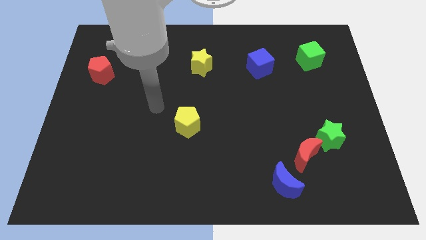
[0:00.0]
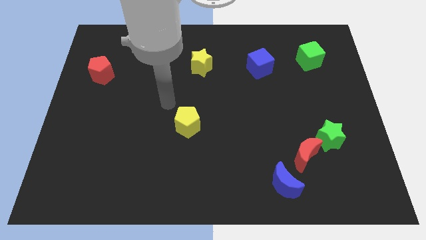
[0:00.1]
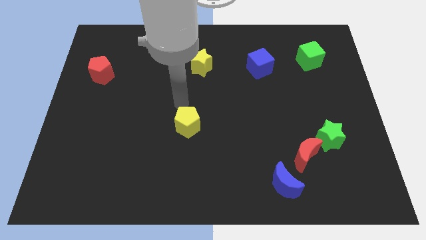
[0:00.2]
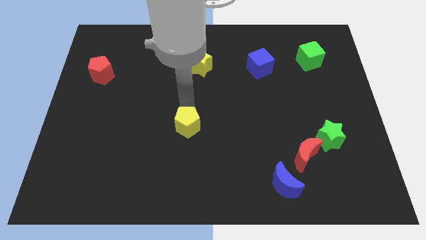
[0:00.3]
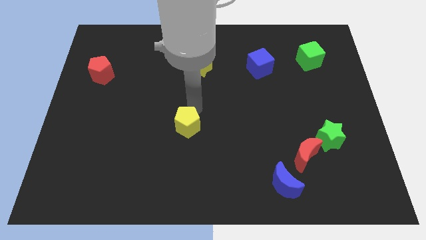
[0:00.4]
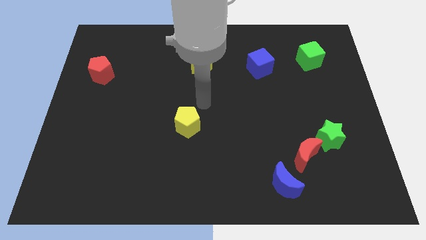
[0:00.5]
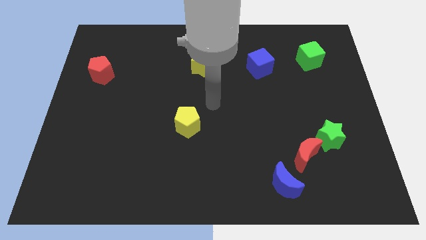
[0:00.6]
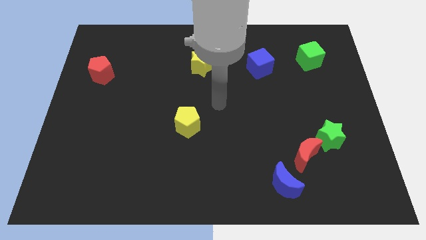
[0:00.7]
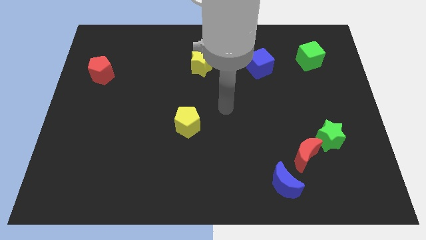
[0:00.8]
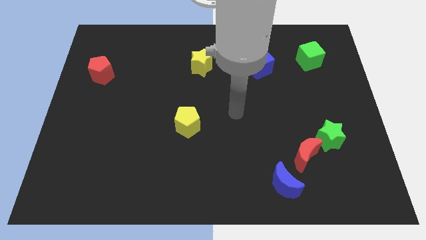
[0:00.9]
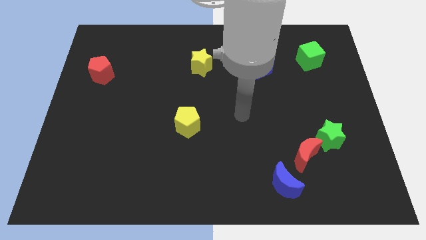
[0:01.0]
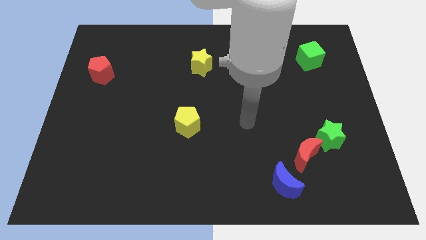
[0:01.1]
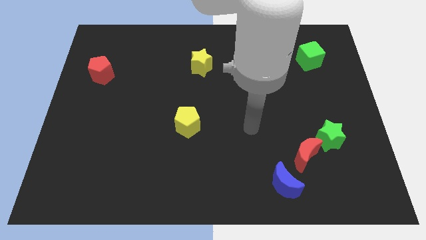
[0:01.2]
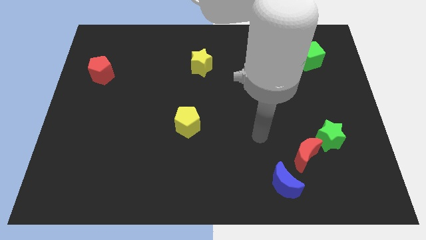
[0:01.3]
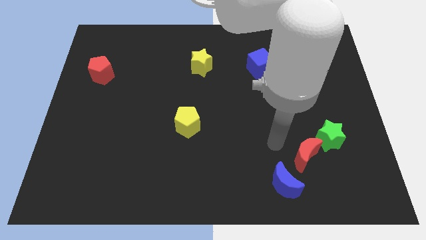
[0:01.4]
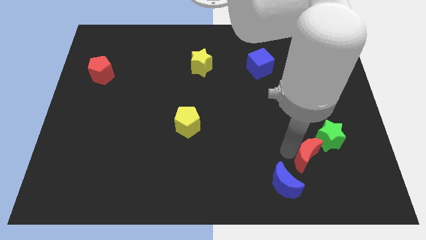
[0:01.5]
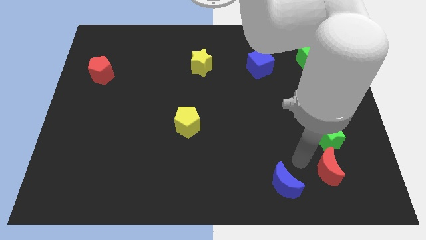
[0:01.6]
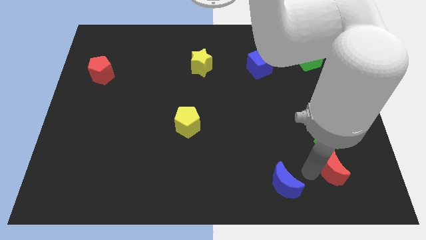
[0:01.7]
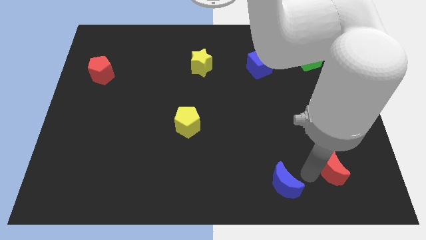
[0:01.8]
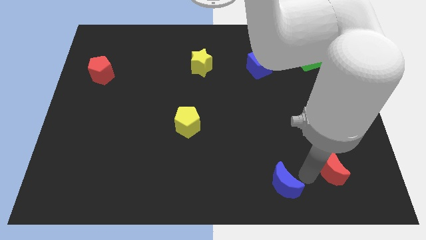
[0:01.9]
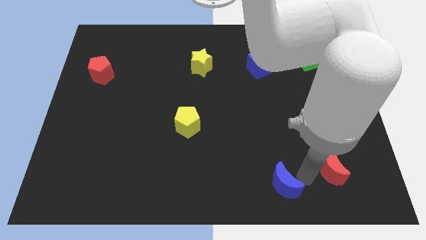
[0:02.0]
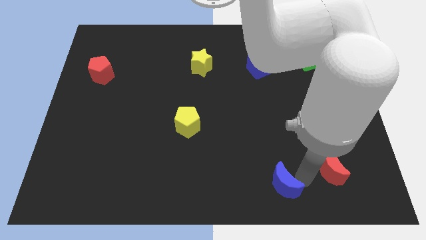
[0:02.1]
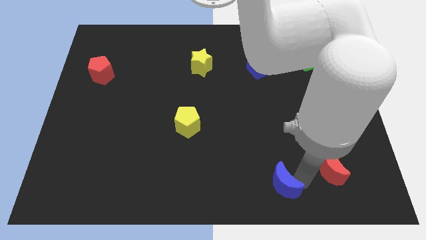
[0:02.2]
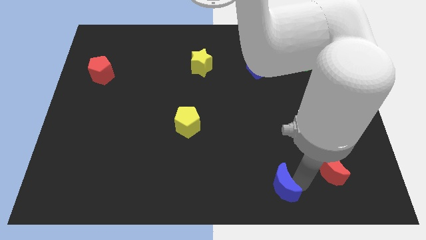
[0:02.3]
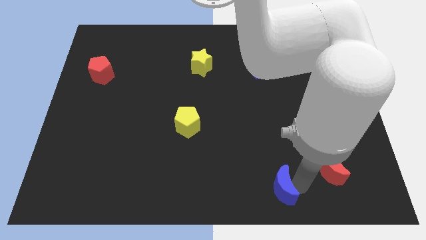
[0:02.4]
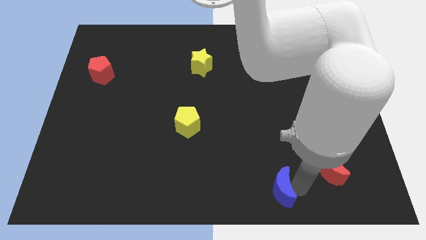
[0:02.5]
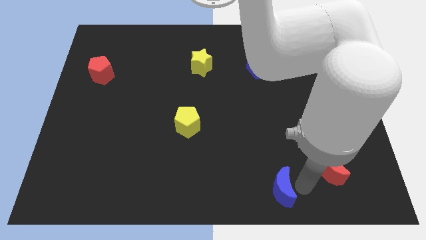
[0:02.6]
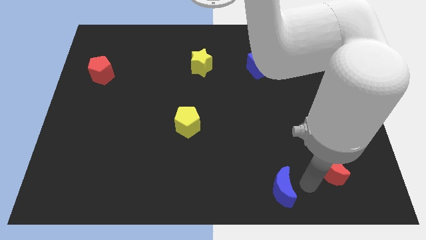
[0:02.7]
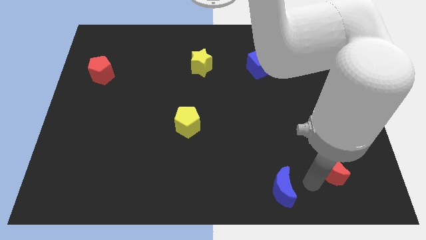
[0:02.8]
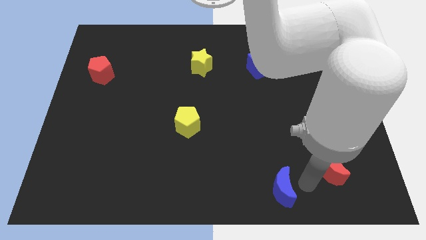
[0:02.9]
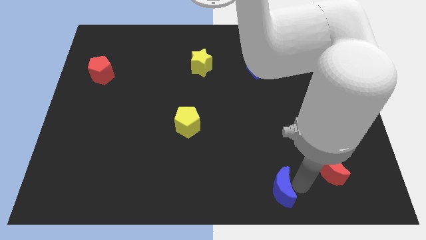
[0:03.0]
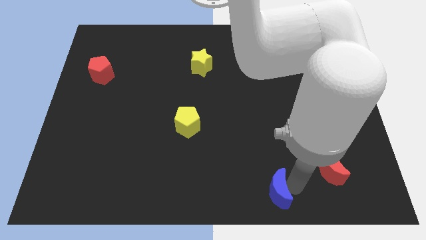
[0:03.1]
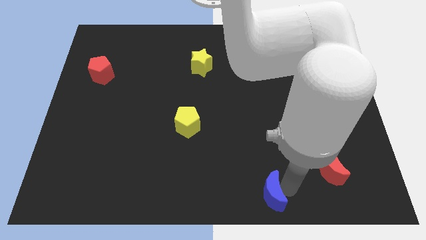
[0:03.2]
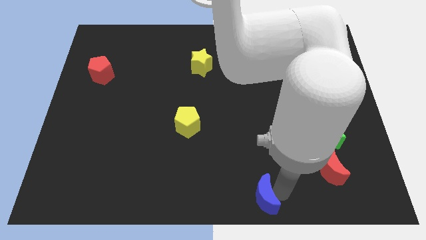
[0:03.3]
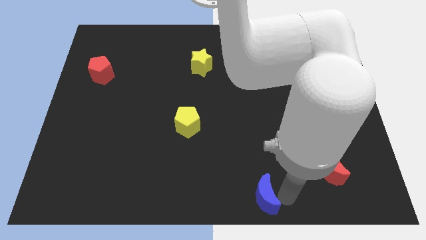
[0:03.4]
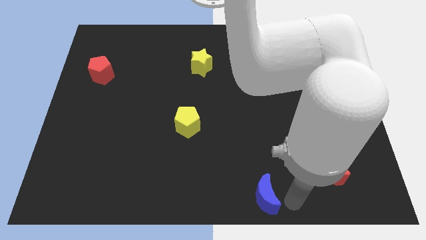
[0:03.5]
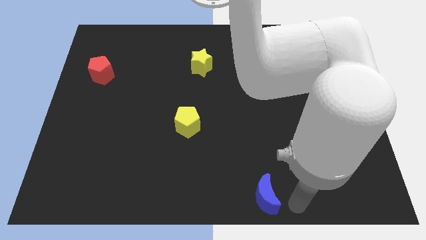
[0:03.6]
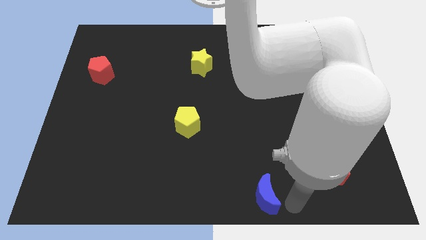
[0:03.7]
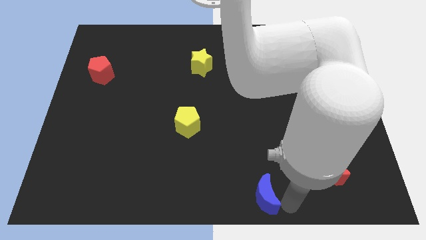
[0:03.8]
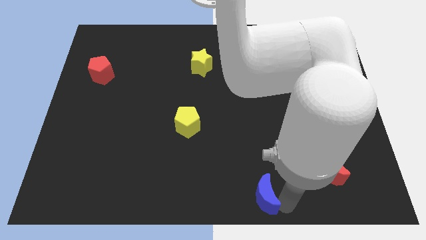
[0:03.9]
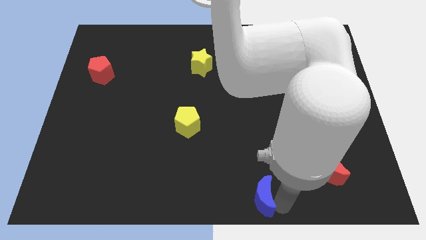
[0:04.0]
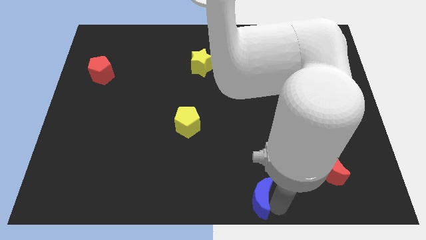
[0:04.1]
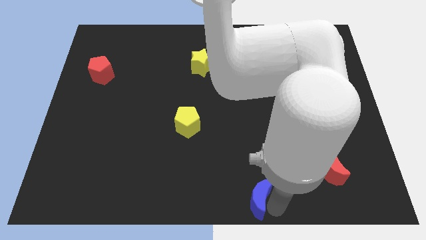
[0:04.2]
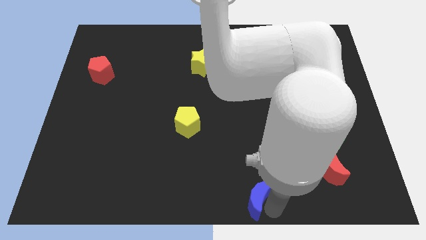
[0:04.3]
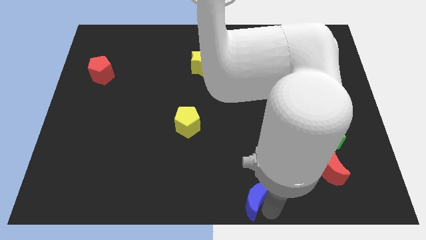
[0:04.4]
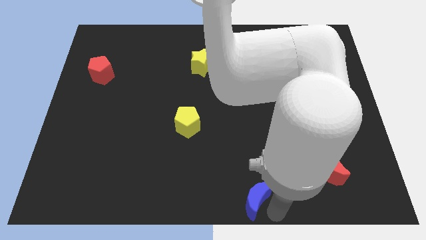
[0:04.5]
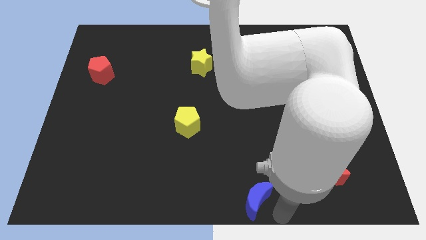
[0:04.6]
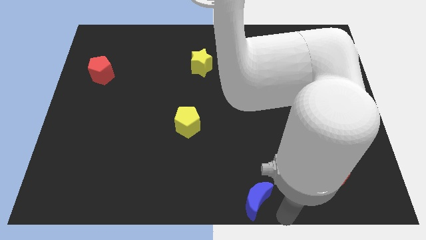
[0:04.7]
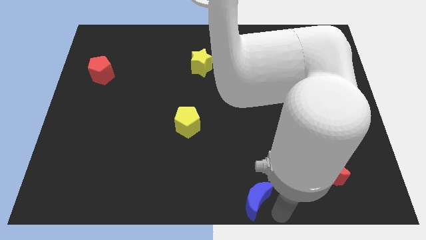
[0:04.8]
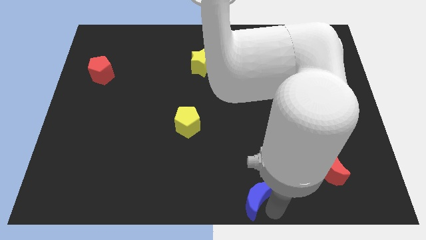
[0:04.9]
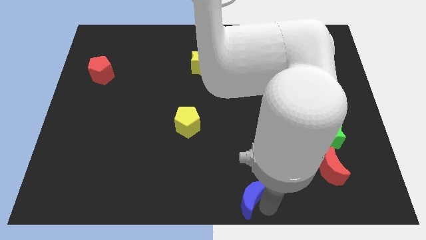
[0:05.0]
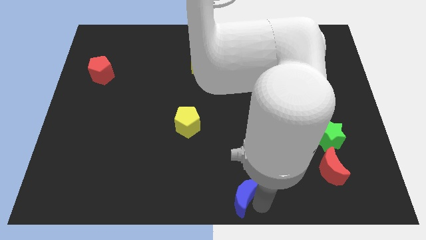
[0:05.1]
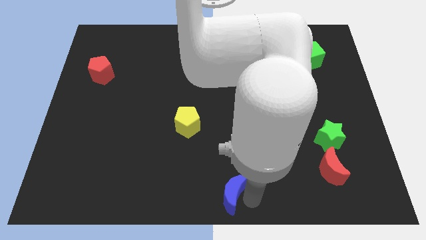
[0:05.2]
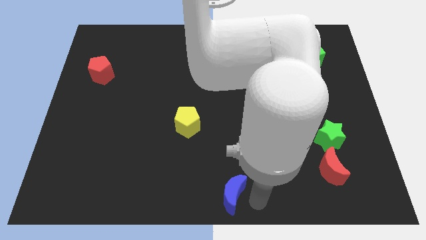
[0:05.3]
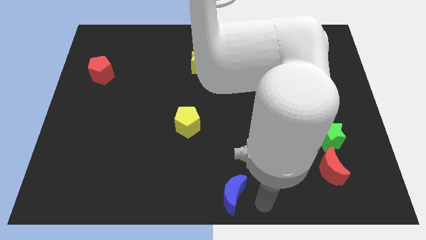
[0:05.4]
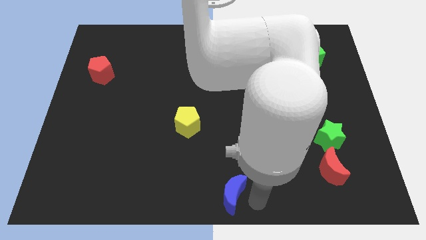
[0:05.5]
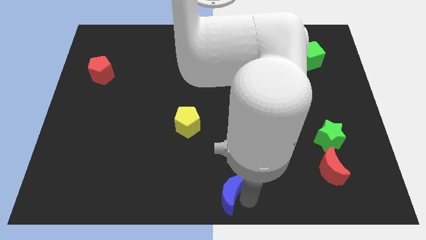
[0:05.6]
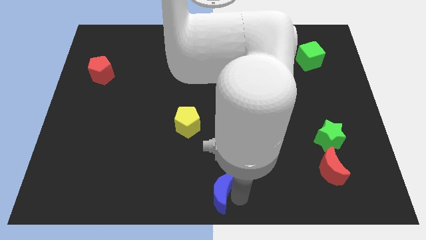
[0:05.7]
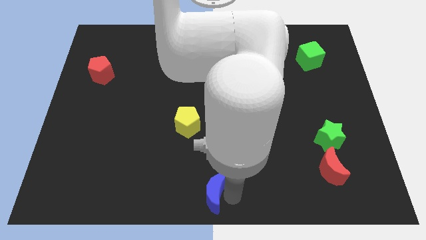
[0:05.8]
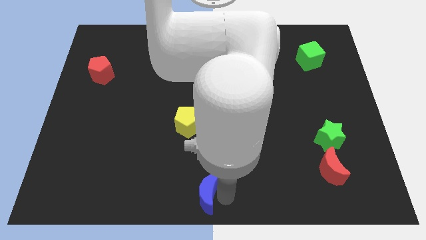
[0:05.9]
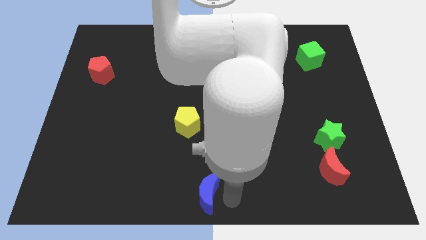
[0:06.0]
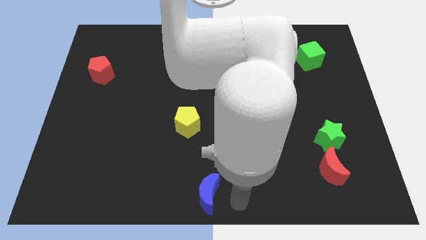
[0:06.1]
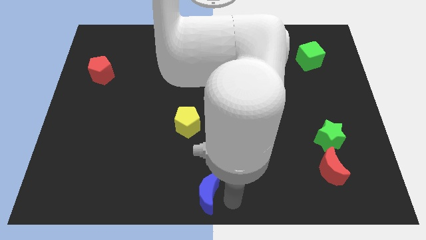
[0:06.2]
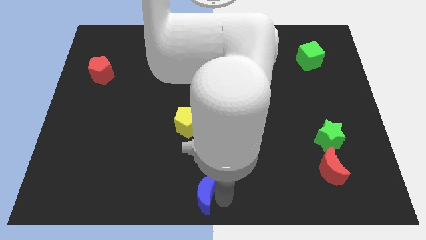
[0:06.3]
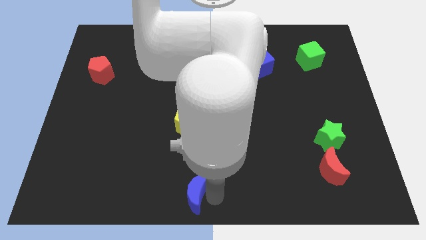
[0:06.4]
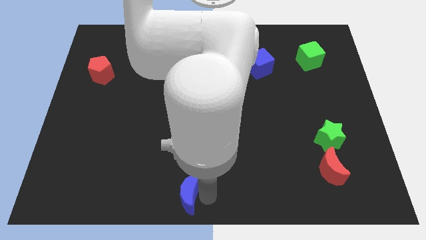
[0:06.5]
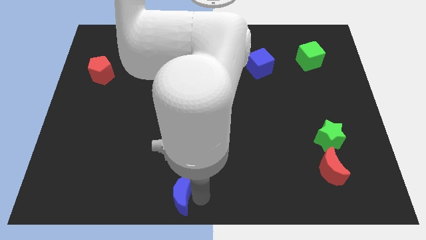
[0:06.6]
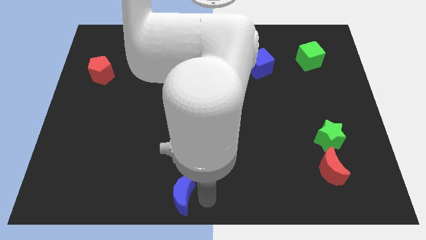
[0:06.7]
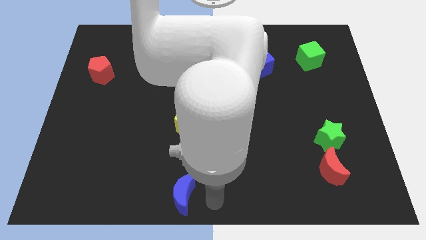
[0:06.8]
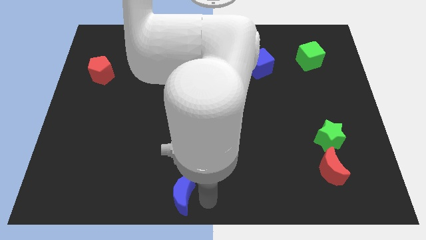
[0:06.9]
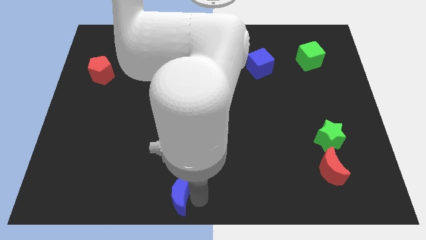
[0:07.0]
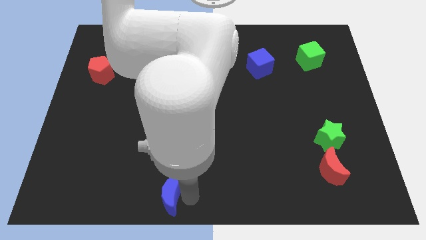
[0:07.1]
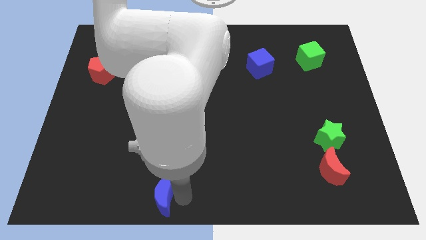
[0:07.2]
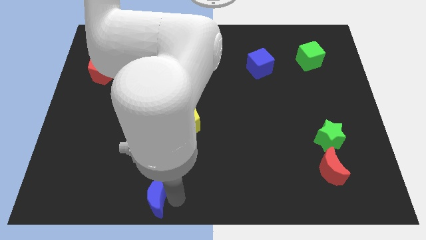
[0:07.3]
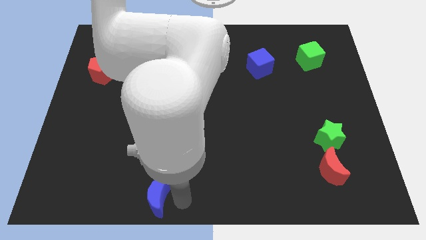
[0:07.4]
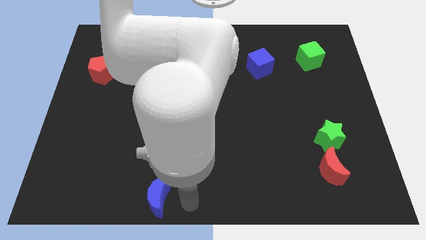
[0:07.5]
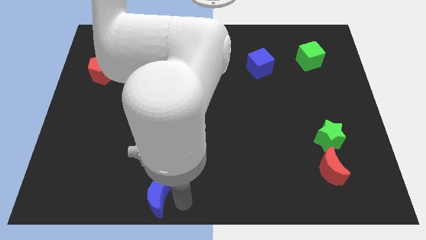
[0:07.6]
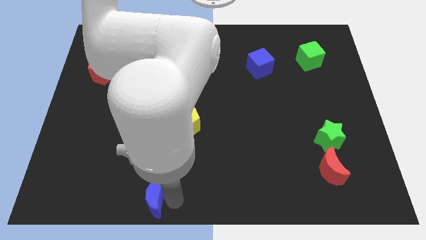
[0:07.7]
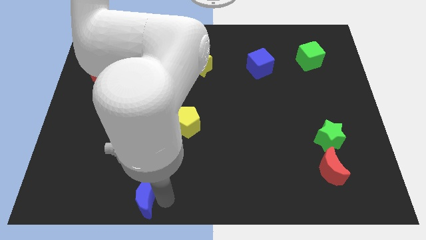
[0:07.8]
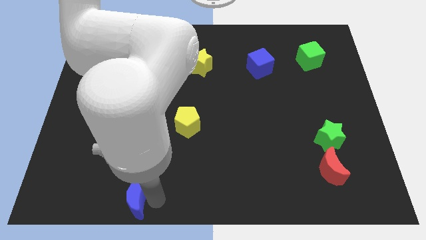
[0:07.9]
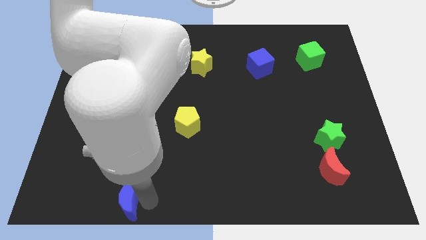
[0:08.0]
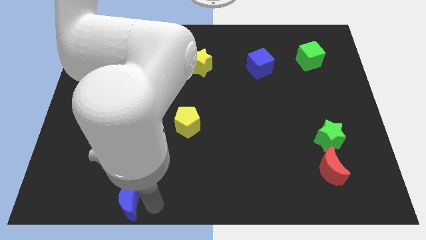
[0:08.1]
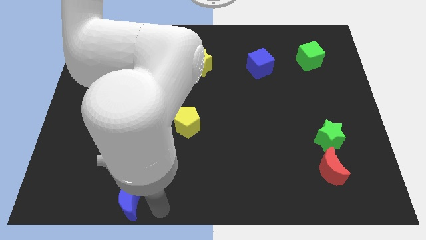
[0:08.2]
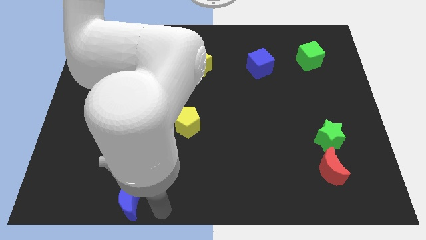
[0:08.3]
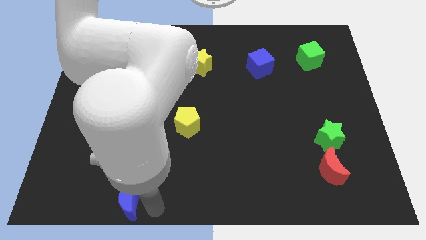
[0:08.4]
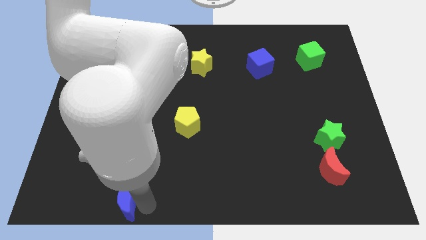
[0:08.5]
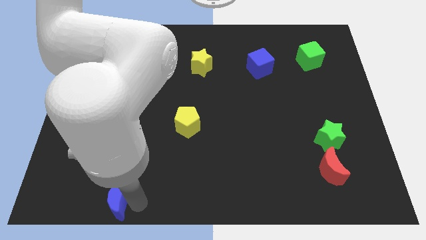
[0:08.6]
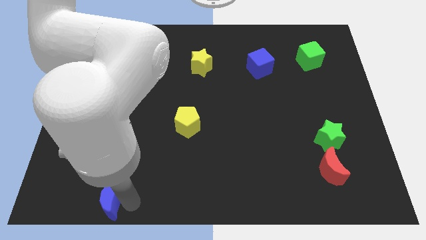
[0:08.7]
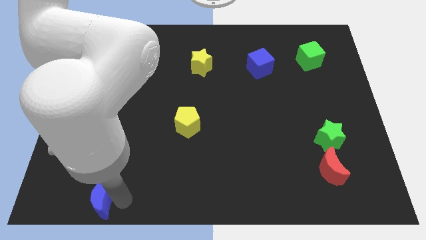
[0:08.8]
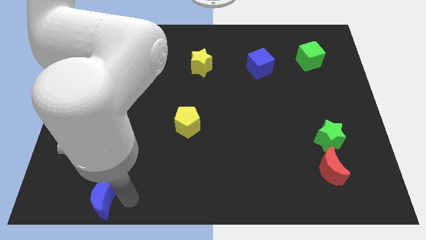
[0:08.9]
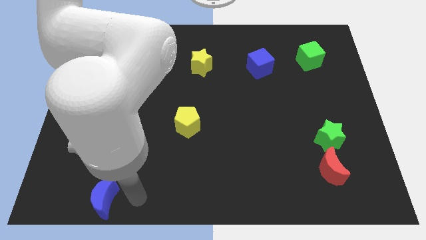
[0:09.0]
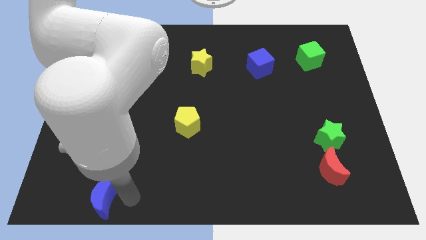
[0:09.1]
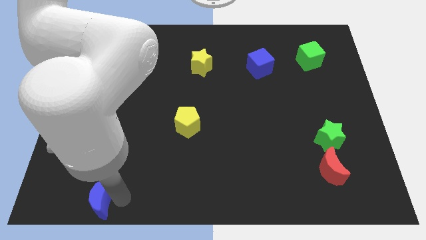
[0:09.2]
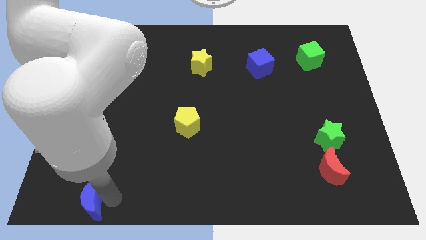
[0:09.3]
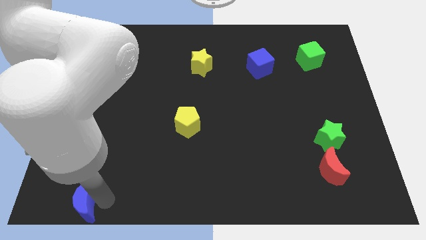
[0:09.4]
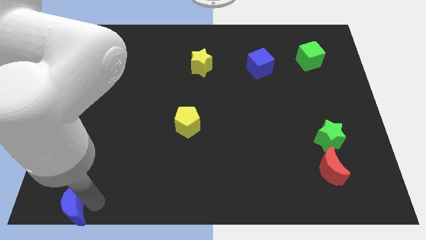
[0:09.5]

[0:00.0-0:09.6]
put the blue moon to the lower left corner
